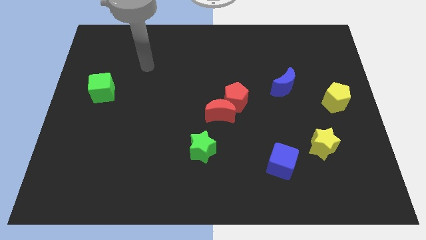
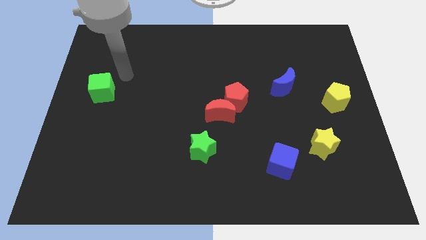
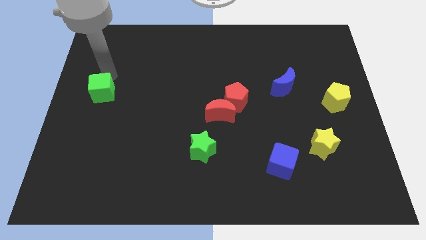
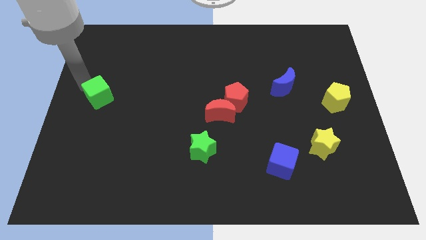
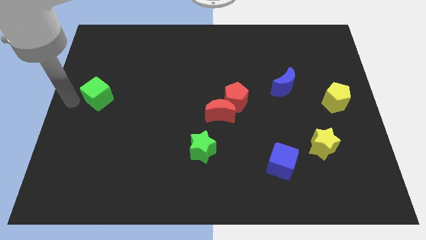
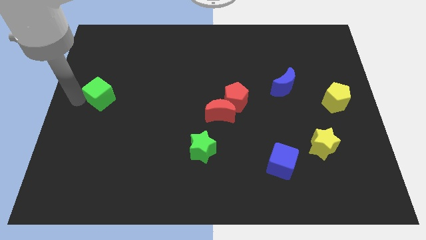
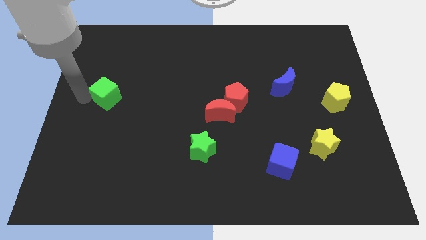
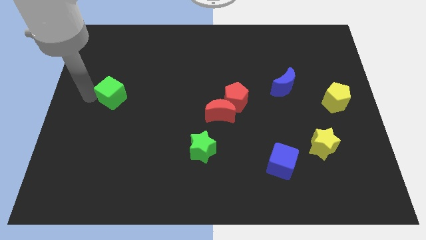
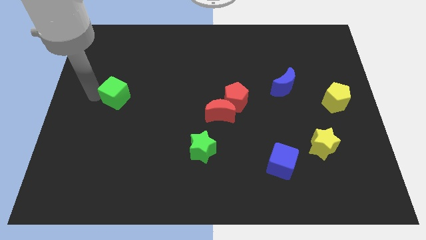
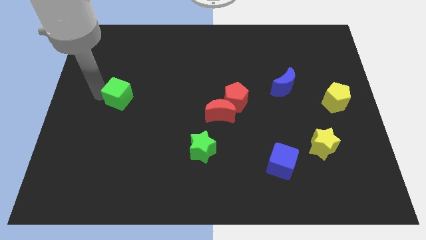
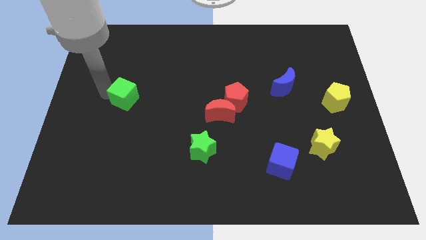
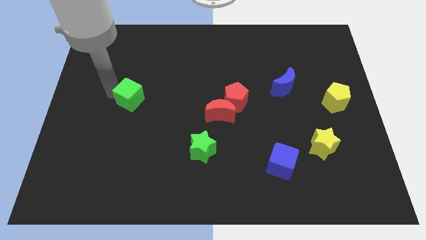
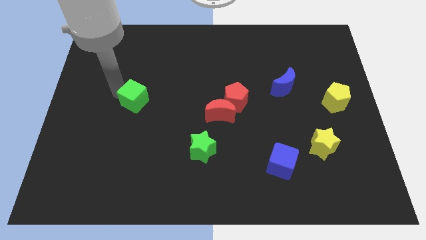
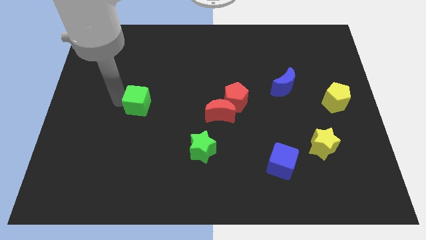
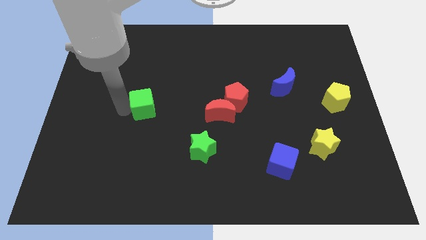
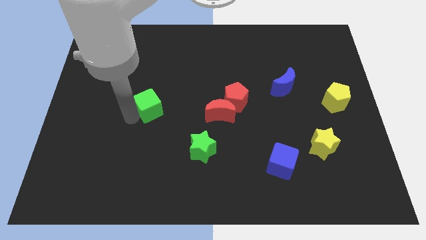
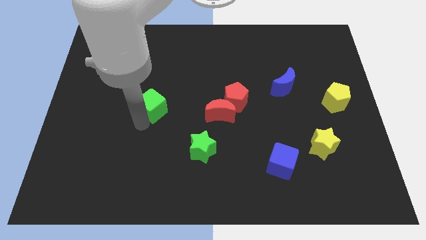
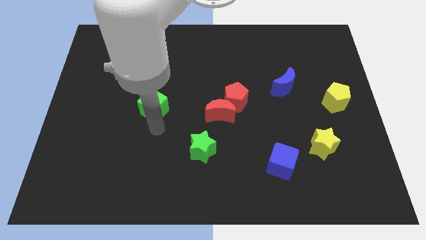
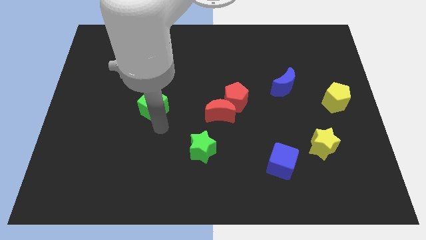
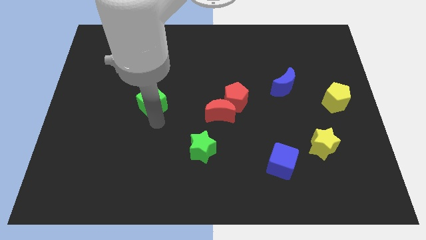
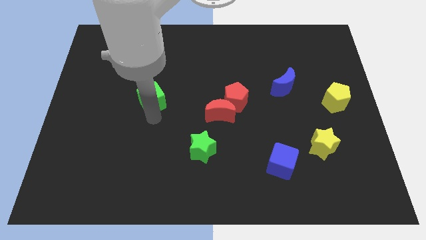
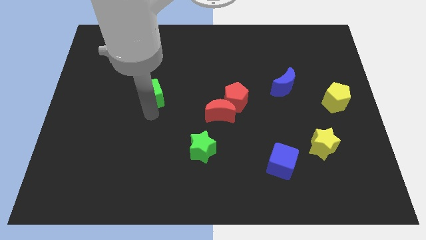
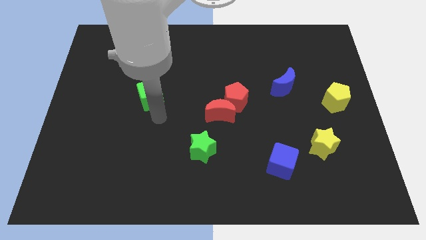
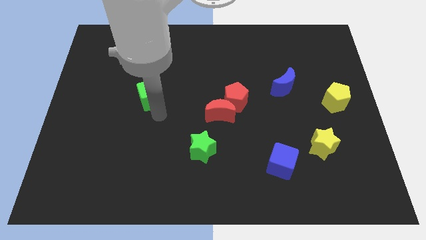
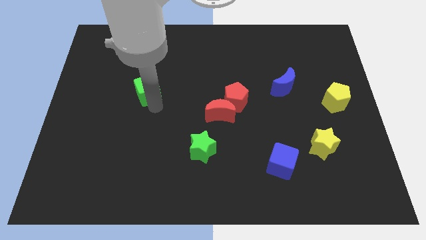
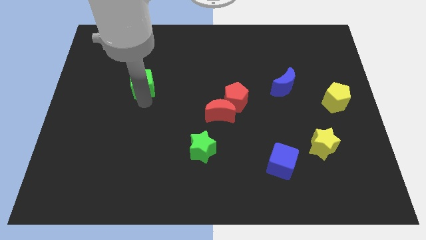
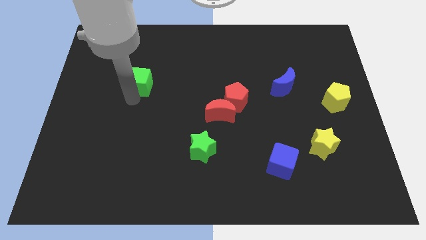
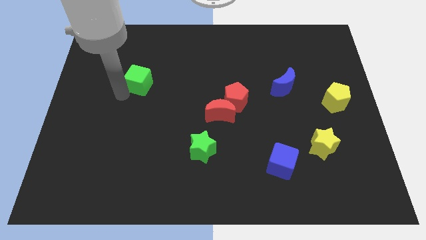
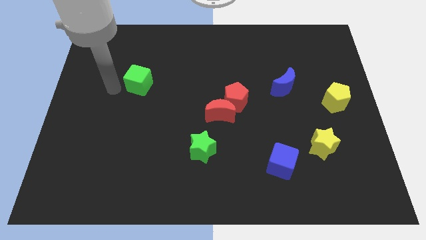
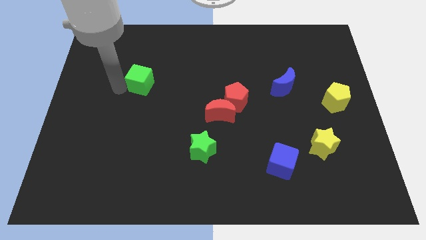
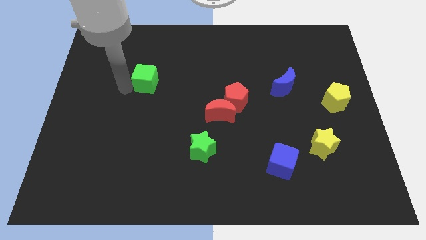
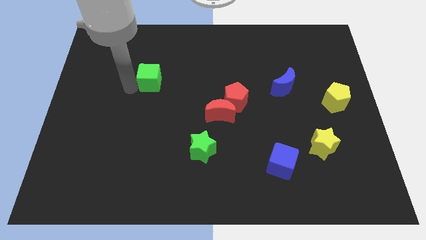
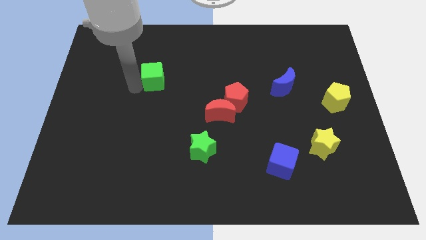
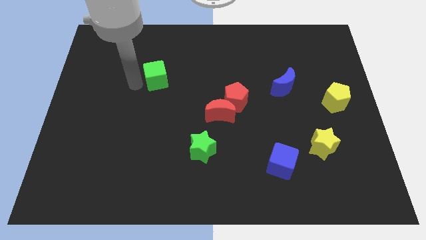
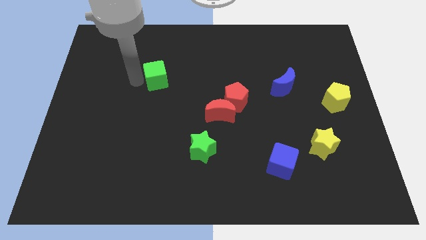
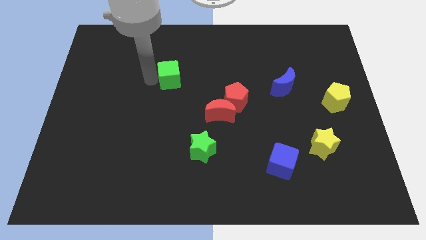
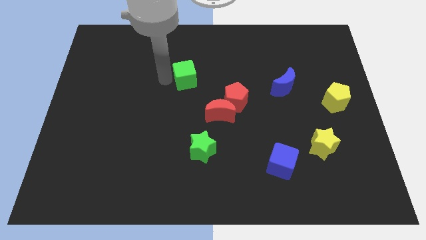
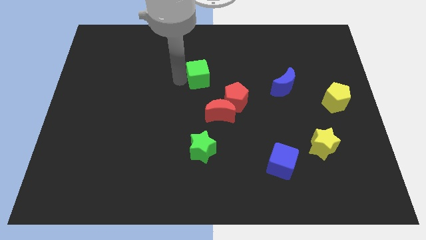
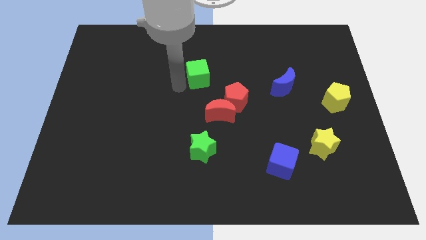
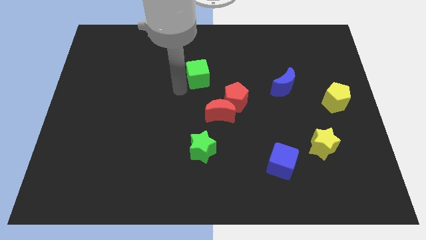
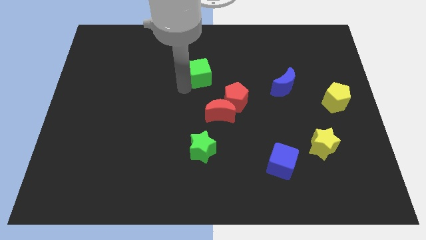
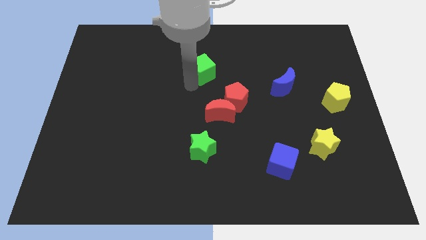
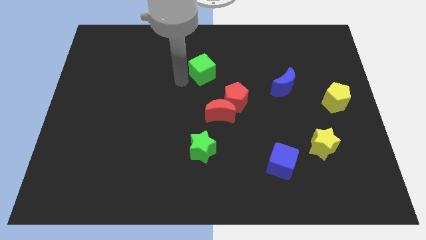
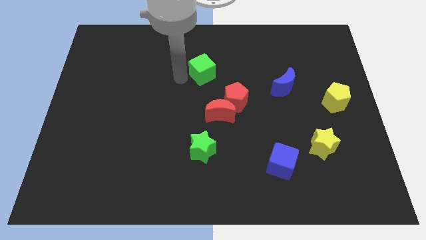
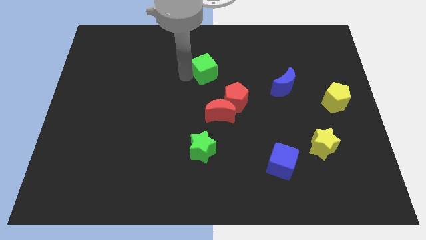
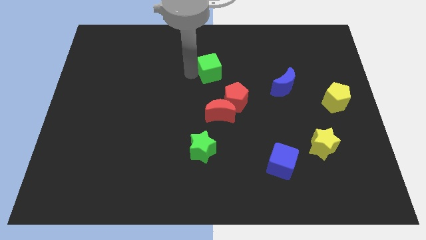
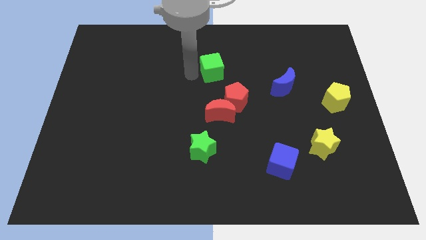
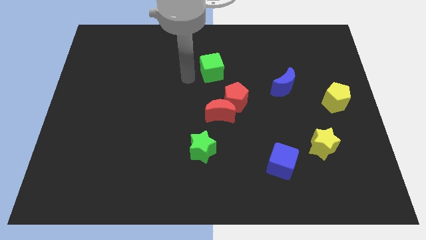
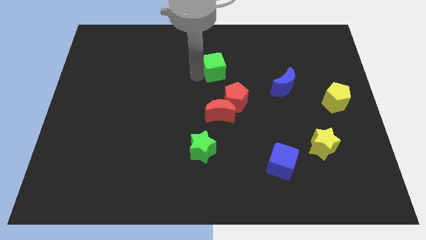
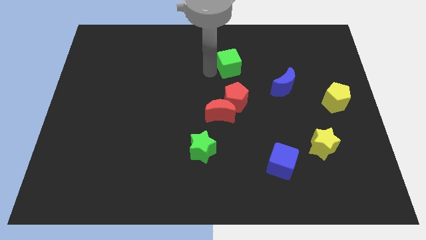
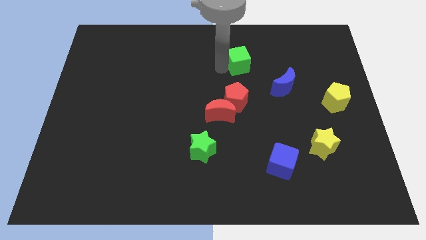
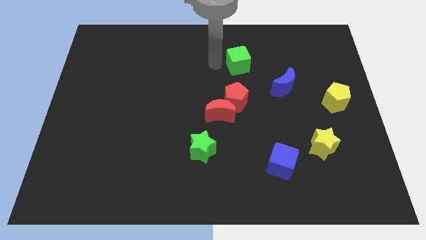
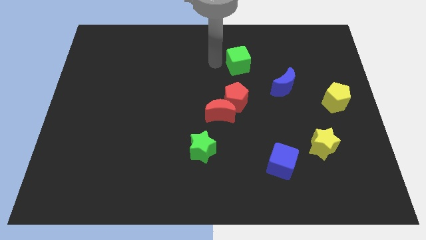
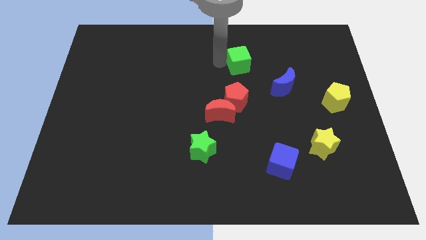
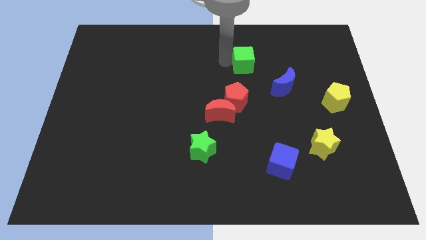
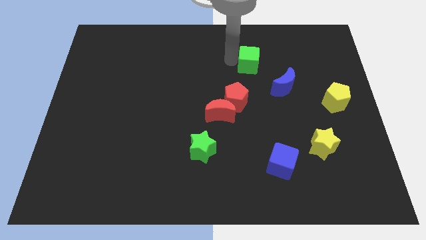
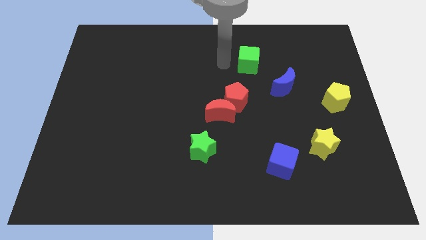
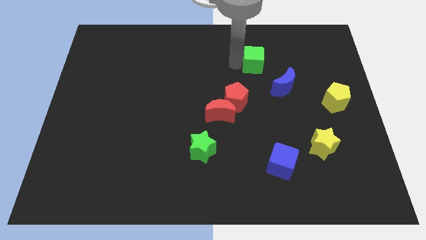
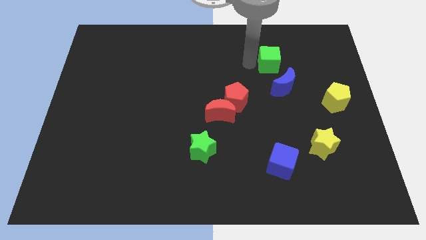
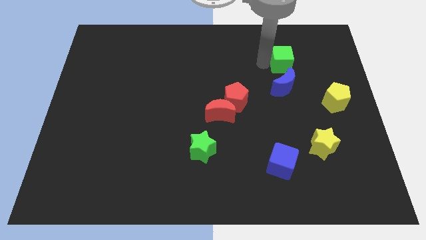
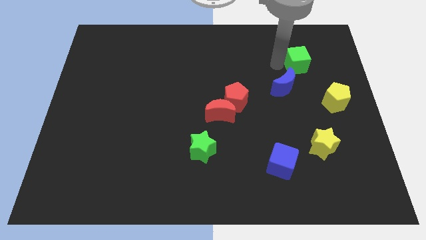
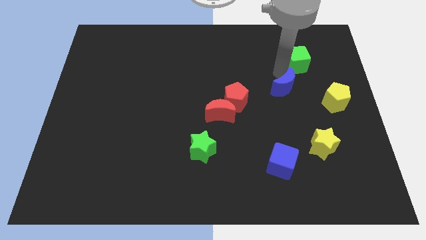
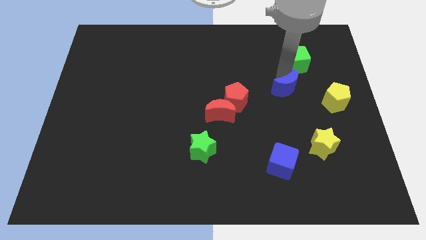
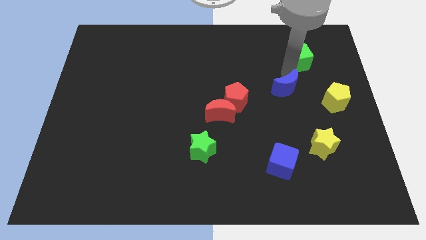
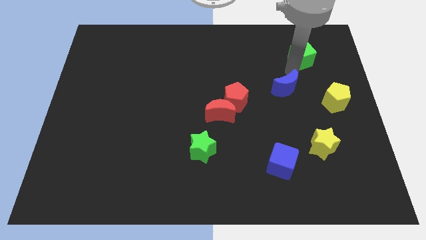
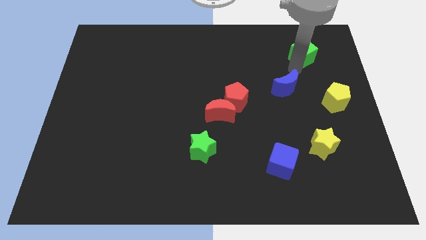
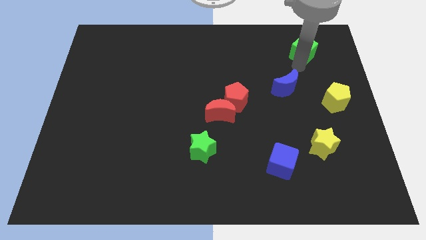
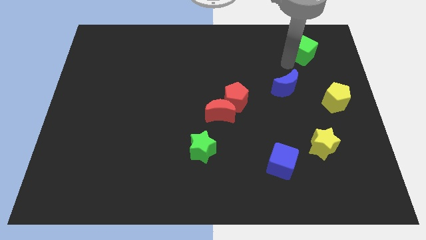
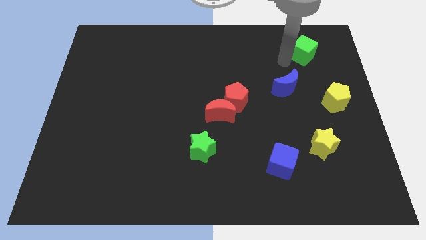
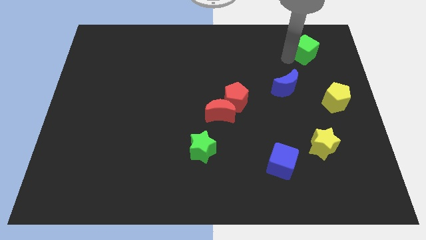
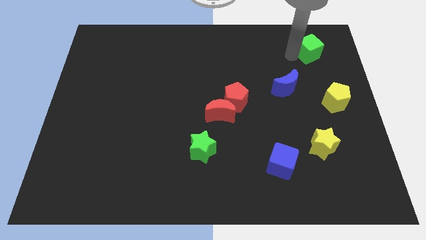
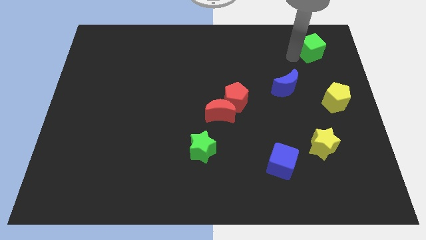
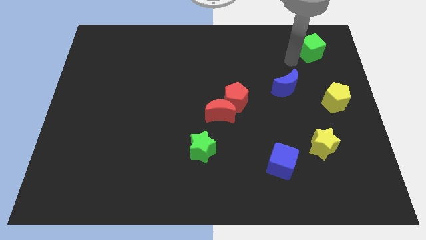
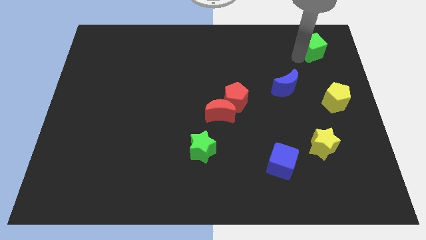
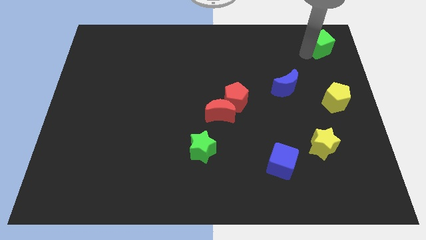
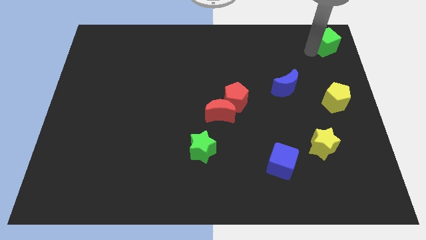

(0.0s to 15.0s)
move the green cube to the top right
